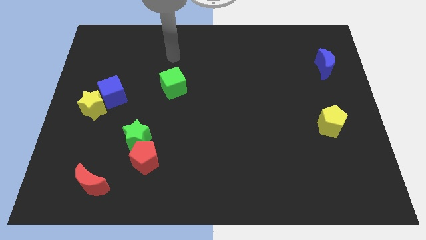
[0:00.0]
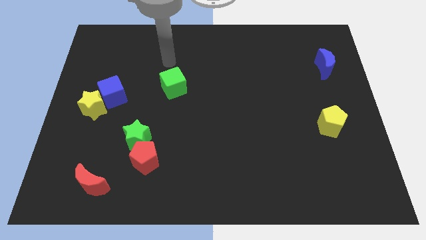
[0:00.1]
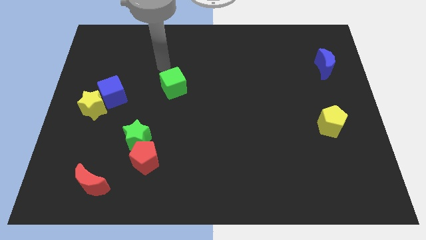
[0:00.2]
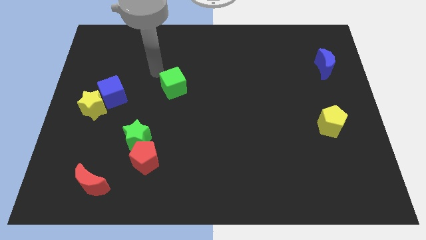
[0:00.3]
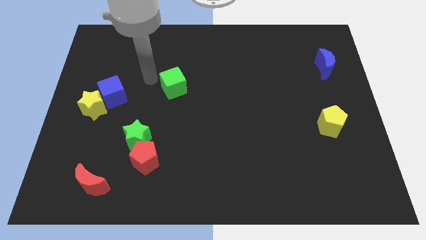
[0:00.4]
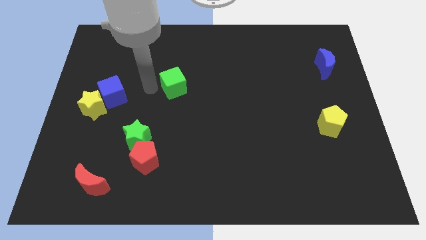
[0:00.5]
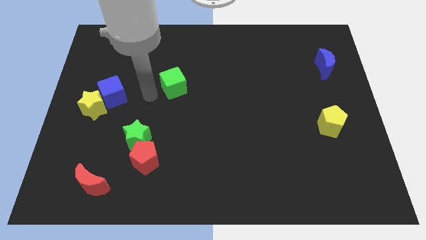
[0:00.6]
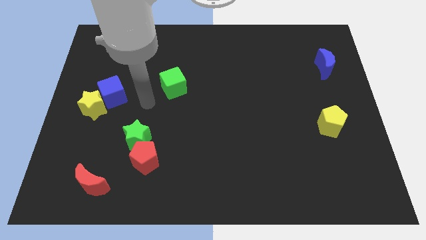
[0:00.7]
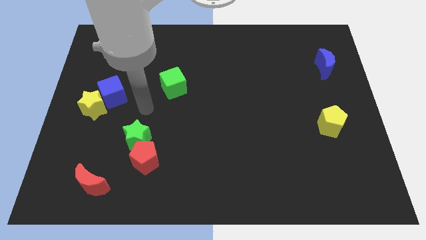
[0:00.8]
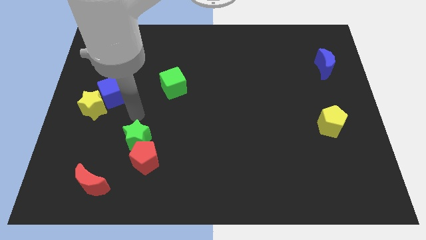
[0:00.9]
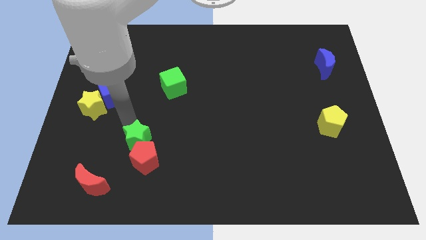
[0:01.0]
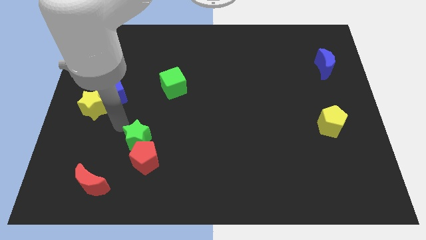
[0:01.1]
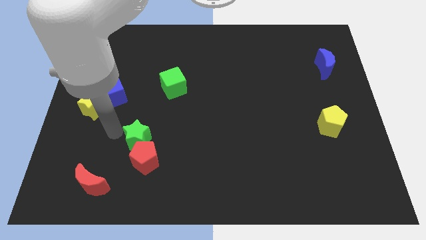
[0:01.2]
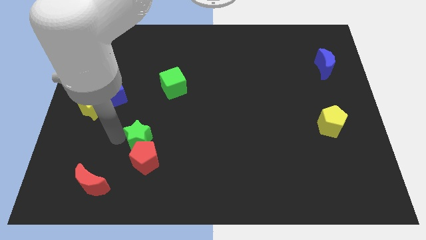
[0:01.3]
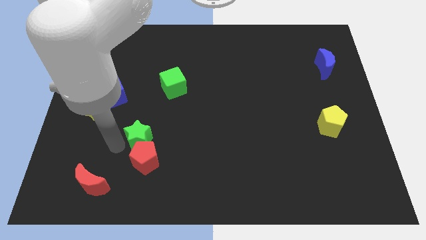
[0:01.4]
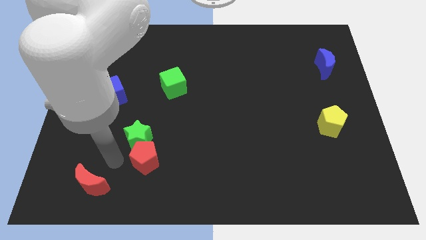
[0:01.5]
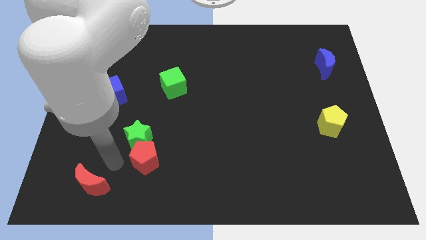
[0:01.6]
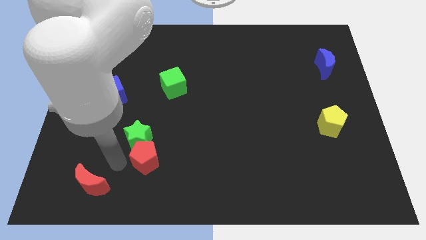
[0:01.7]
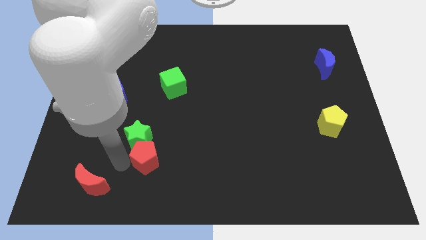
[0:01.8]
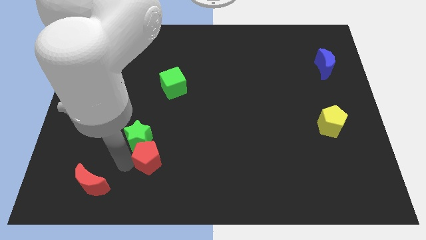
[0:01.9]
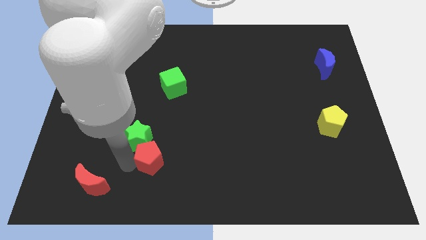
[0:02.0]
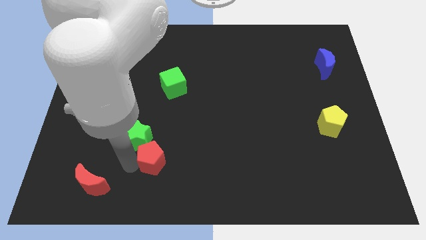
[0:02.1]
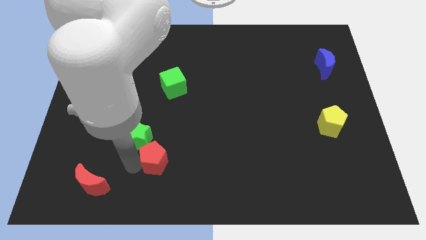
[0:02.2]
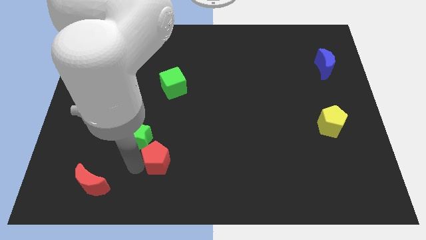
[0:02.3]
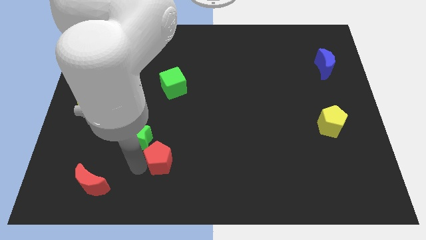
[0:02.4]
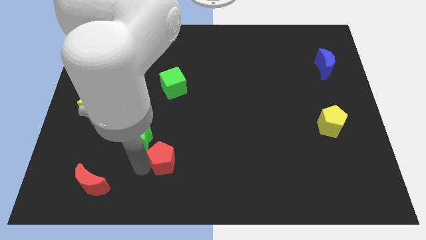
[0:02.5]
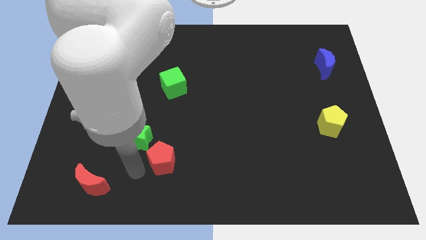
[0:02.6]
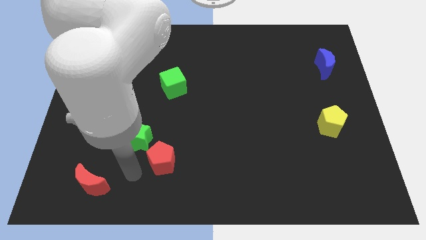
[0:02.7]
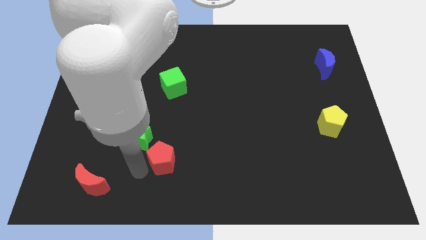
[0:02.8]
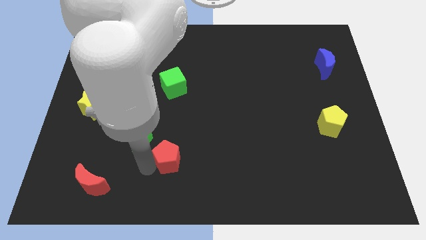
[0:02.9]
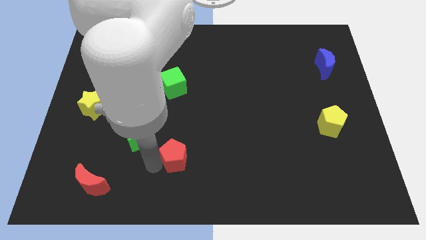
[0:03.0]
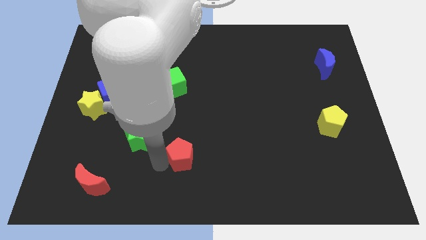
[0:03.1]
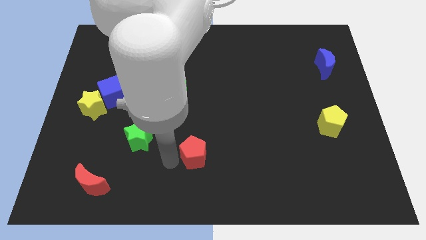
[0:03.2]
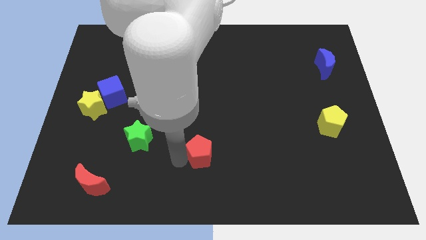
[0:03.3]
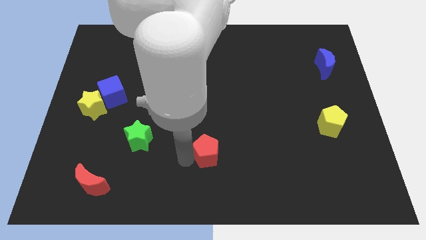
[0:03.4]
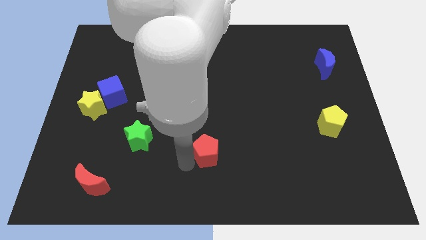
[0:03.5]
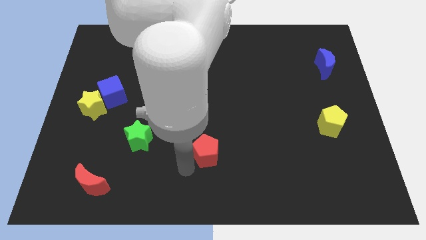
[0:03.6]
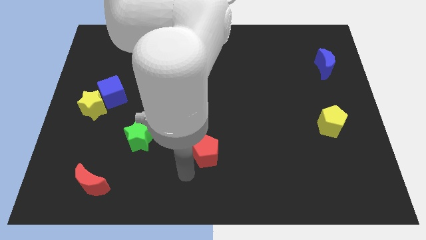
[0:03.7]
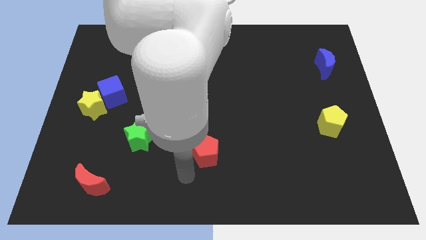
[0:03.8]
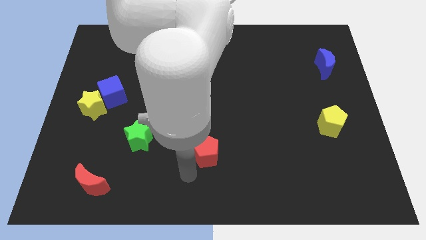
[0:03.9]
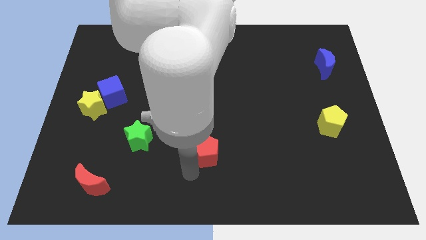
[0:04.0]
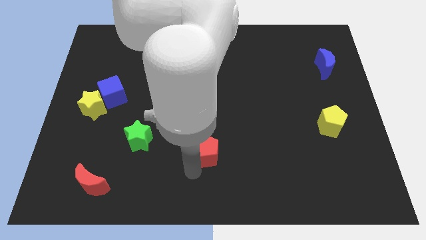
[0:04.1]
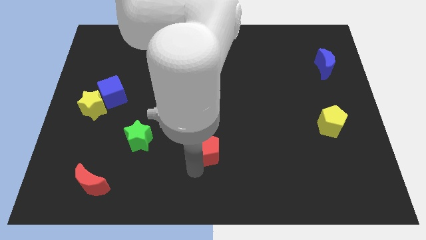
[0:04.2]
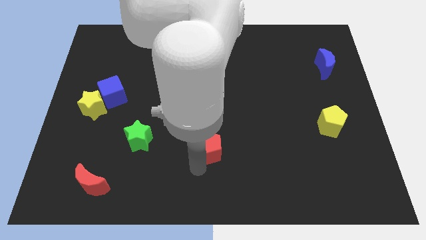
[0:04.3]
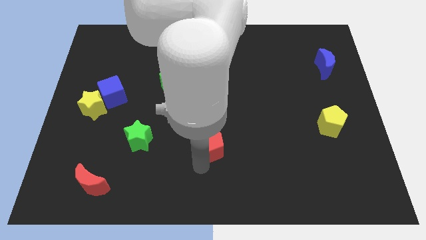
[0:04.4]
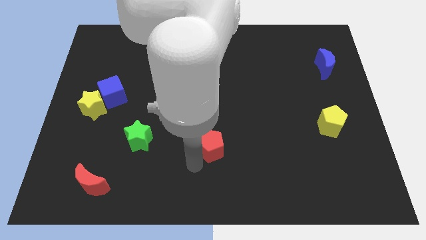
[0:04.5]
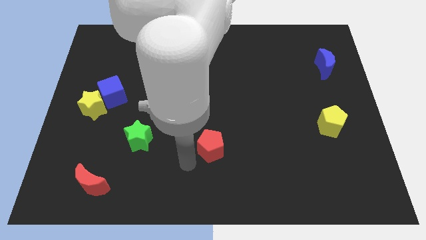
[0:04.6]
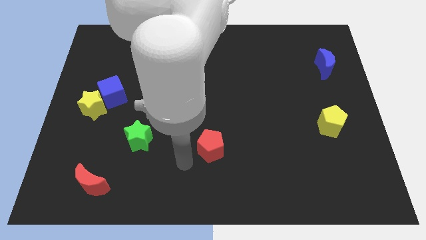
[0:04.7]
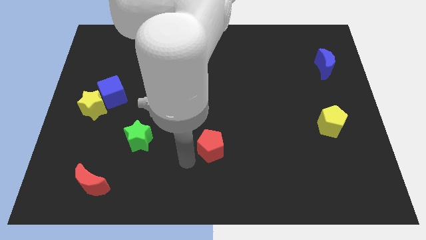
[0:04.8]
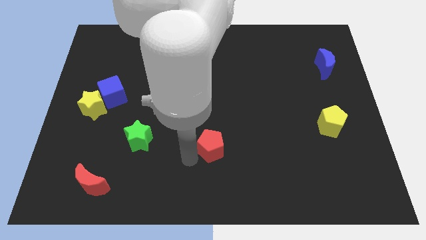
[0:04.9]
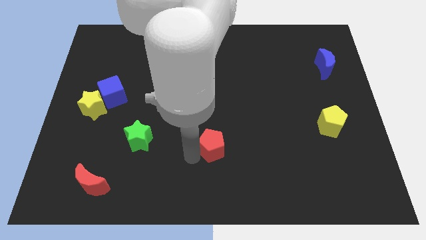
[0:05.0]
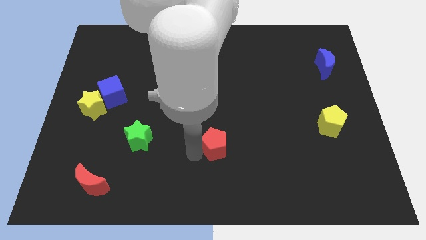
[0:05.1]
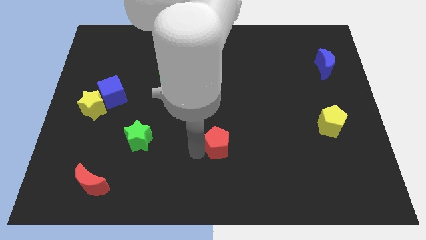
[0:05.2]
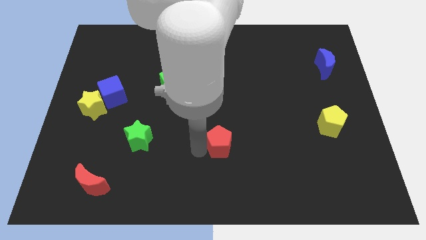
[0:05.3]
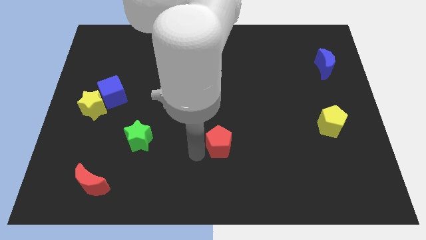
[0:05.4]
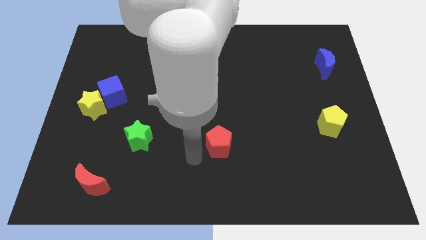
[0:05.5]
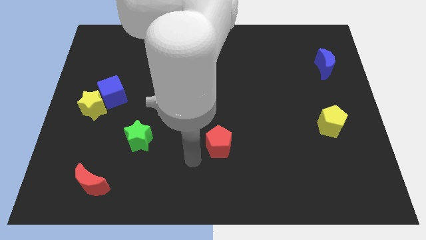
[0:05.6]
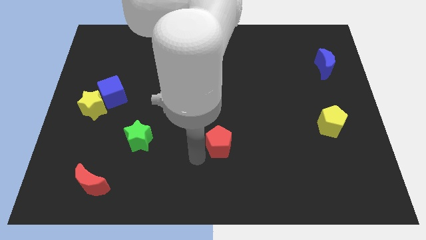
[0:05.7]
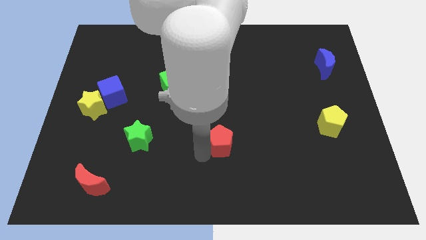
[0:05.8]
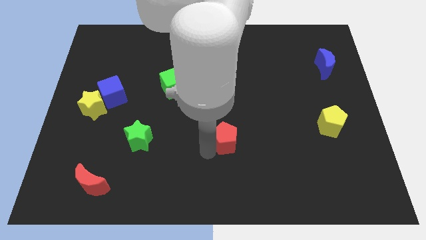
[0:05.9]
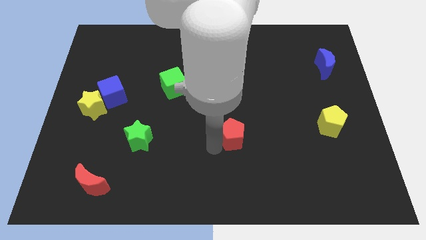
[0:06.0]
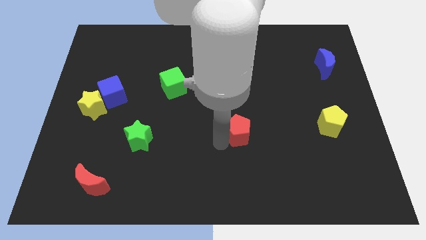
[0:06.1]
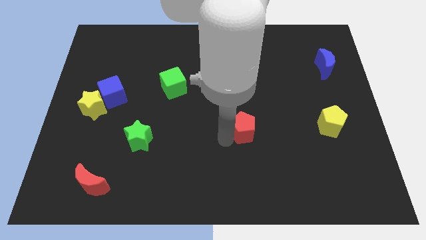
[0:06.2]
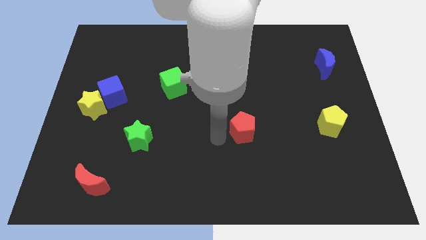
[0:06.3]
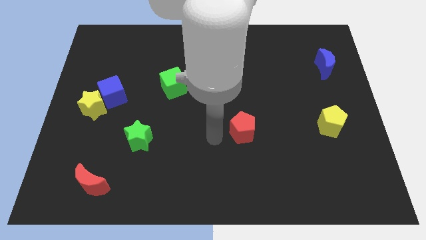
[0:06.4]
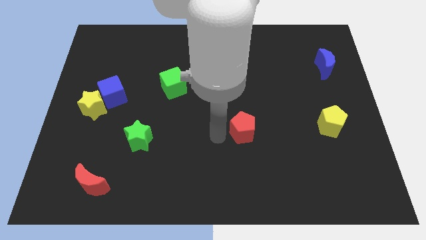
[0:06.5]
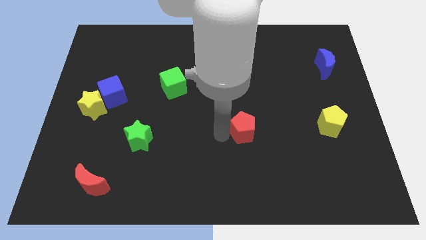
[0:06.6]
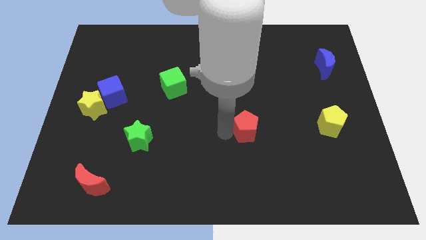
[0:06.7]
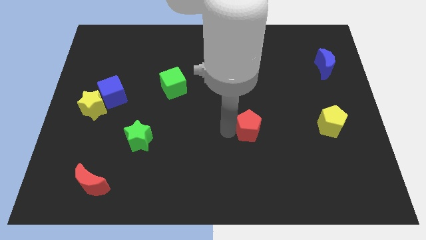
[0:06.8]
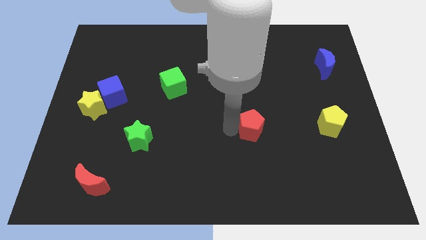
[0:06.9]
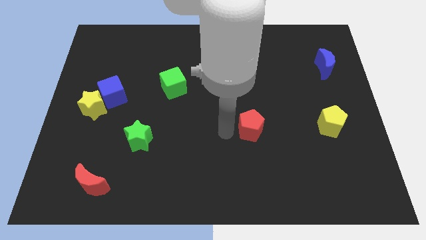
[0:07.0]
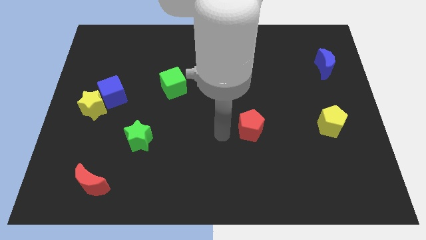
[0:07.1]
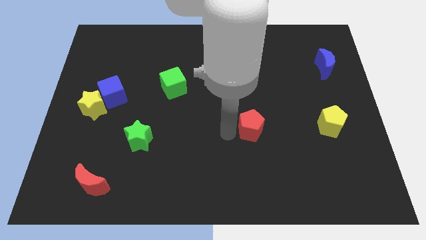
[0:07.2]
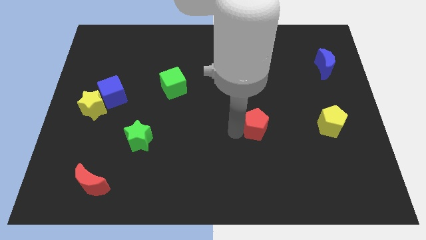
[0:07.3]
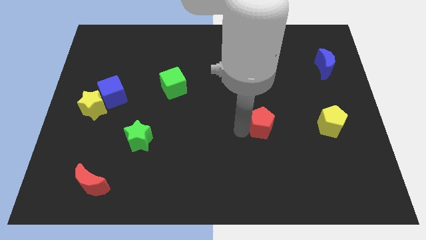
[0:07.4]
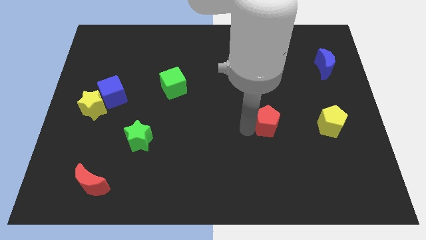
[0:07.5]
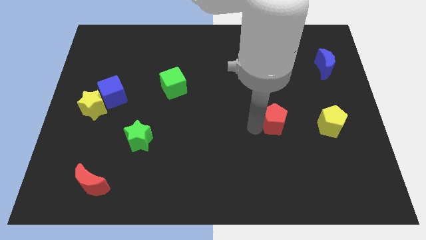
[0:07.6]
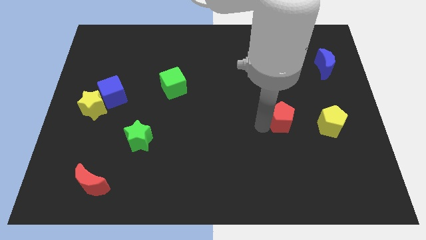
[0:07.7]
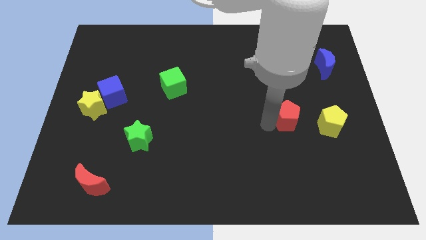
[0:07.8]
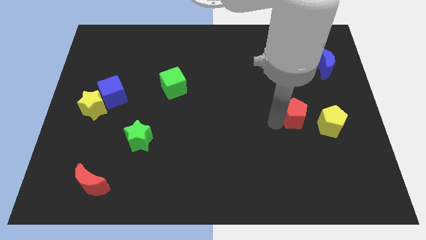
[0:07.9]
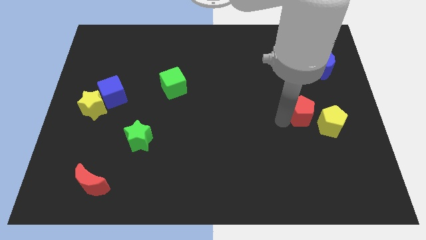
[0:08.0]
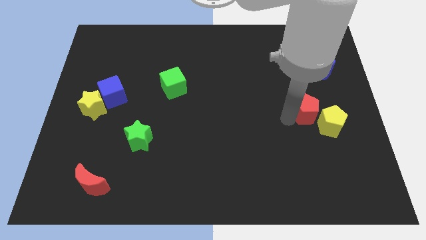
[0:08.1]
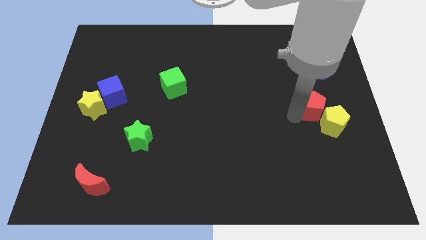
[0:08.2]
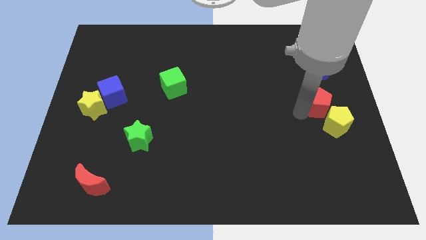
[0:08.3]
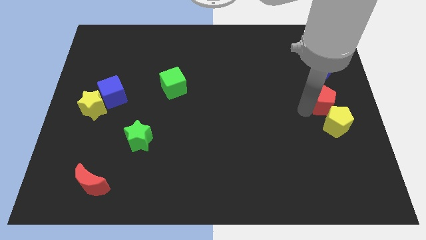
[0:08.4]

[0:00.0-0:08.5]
move the red pentagon to the right side of the board
